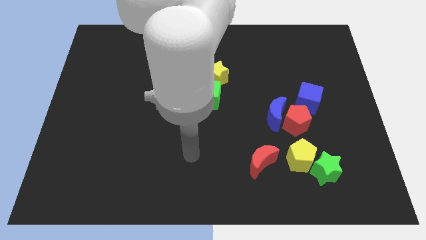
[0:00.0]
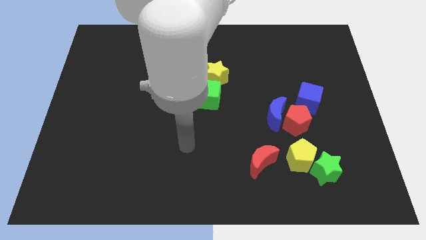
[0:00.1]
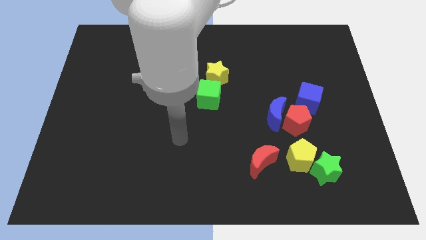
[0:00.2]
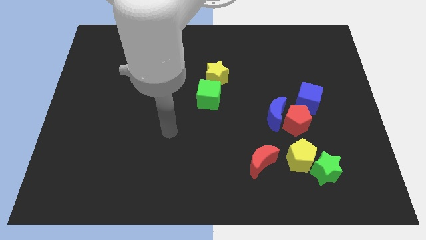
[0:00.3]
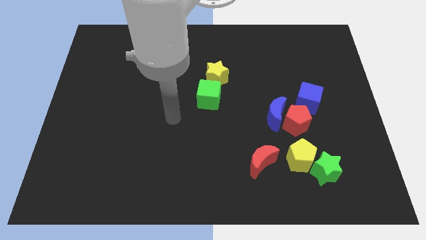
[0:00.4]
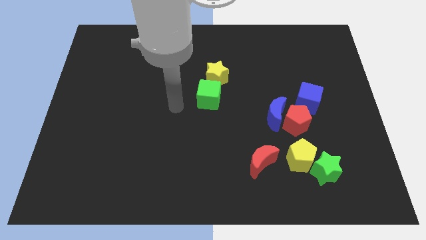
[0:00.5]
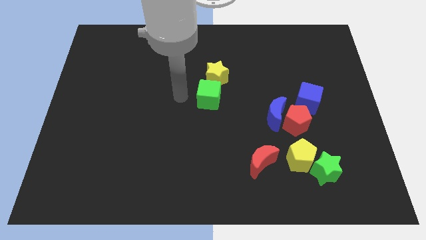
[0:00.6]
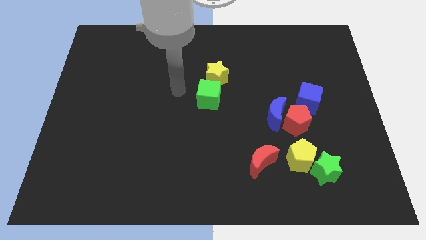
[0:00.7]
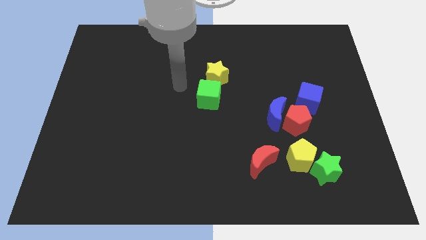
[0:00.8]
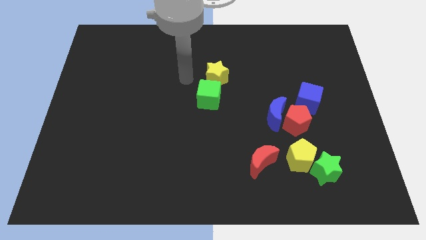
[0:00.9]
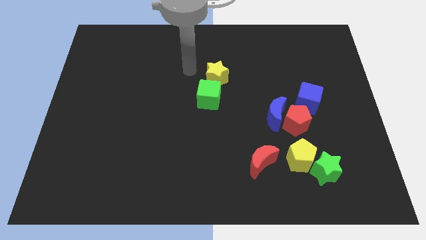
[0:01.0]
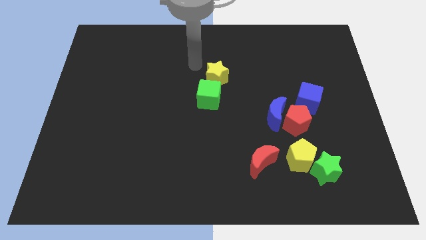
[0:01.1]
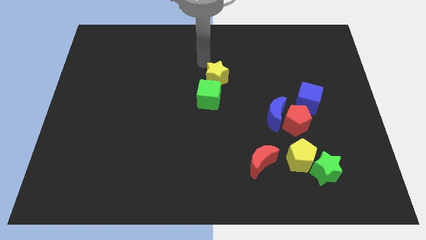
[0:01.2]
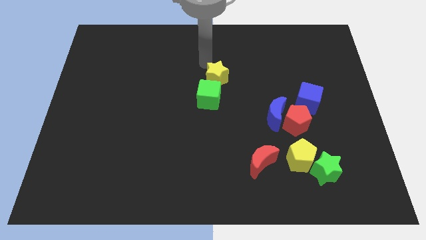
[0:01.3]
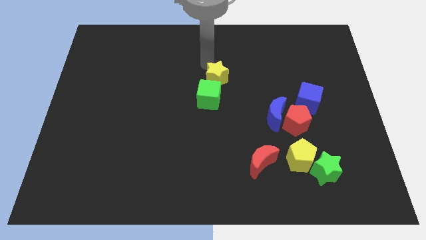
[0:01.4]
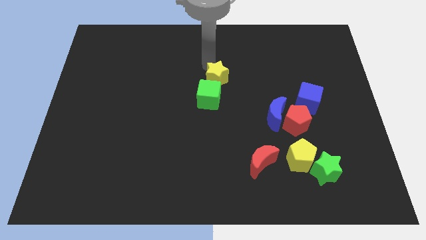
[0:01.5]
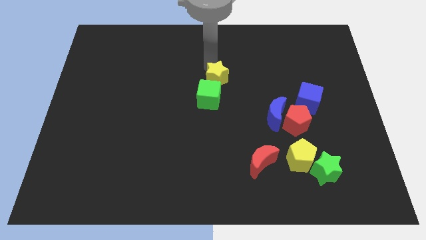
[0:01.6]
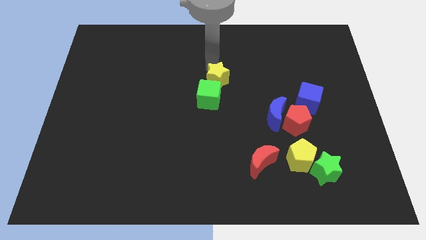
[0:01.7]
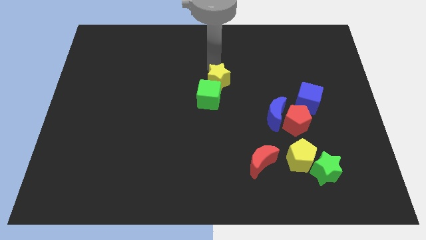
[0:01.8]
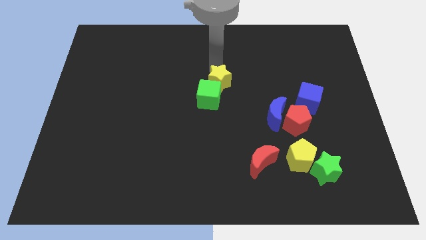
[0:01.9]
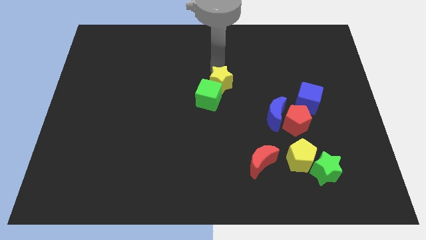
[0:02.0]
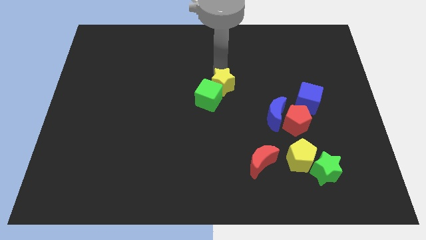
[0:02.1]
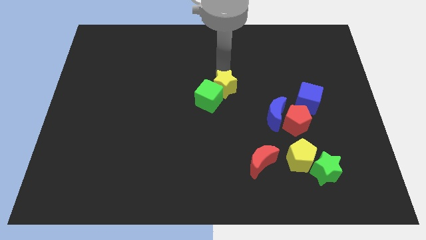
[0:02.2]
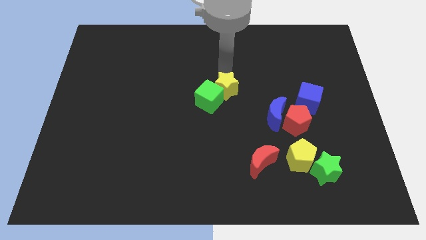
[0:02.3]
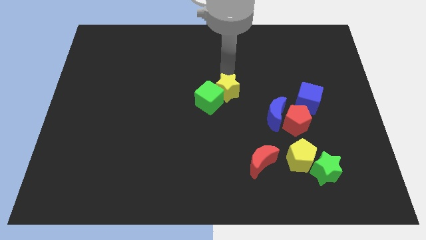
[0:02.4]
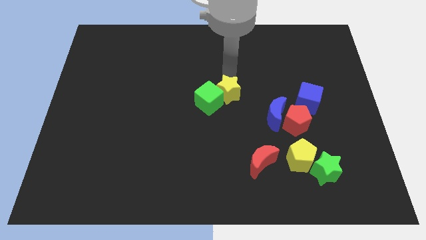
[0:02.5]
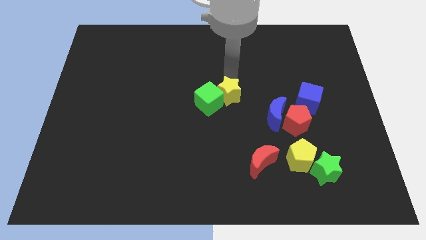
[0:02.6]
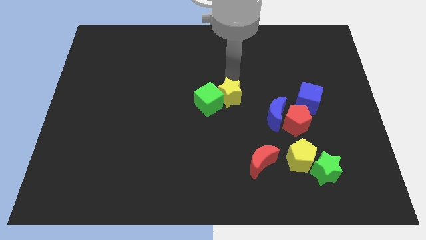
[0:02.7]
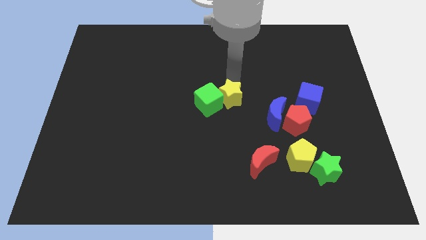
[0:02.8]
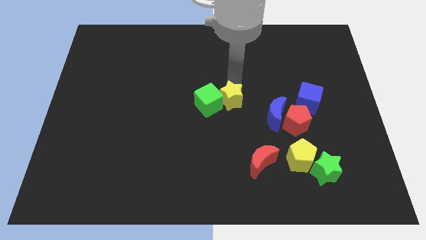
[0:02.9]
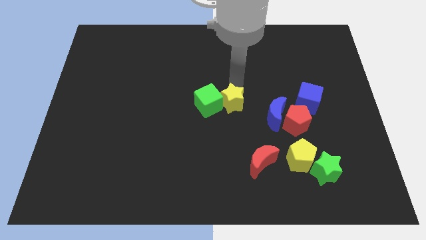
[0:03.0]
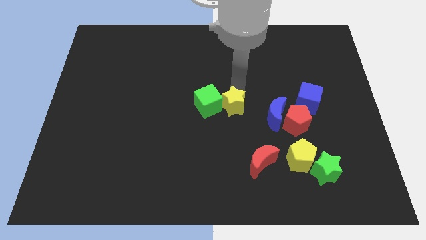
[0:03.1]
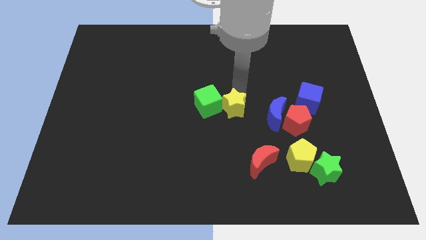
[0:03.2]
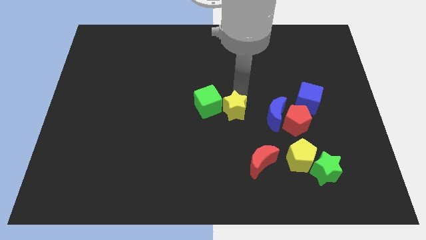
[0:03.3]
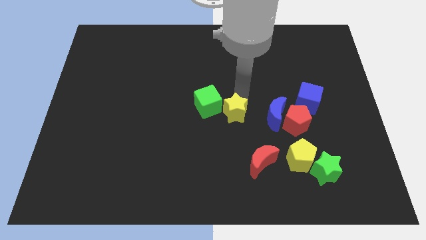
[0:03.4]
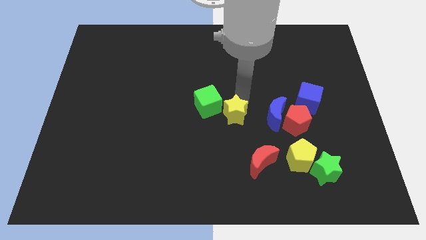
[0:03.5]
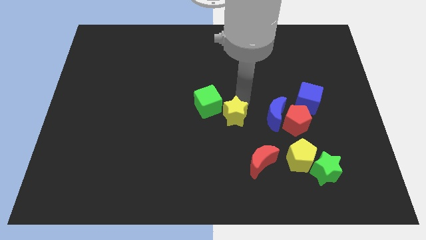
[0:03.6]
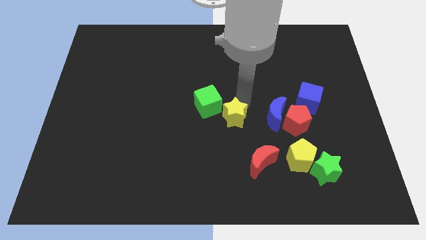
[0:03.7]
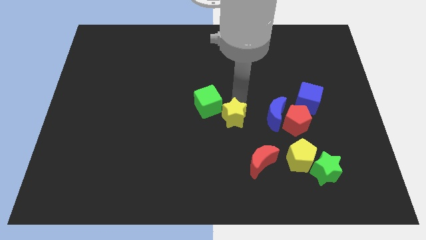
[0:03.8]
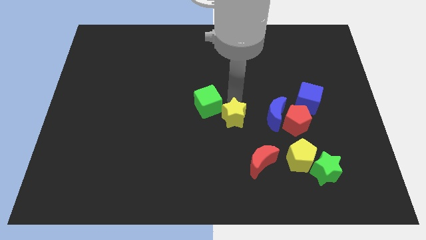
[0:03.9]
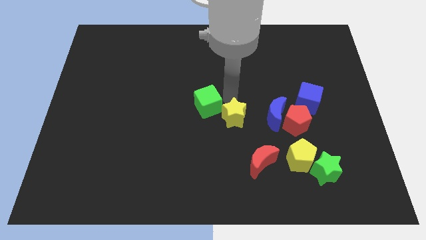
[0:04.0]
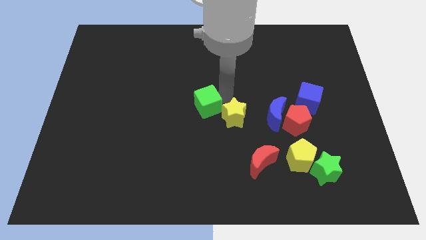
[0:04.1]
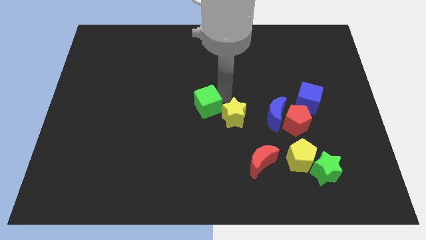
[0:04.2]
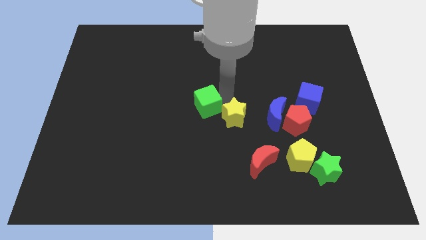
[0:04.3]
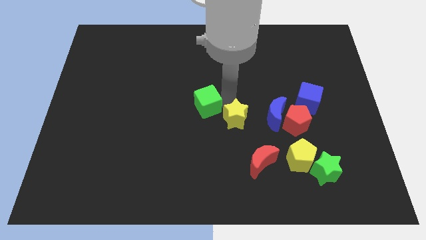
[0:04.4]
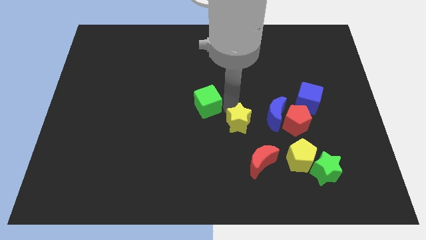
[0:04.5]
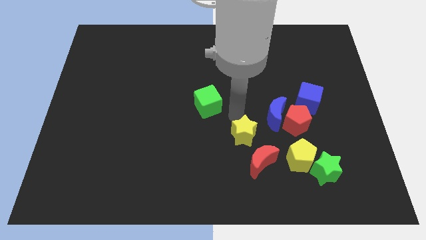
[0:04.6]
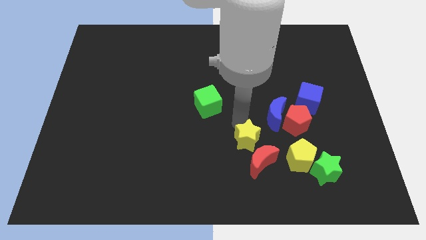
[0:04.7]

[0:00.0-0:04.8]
push the yellow star next to the red moon

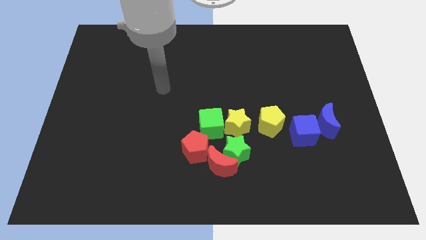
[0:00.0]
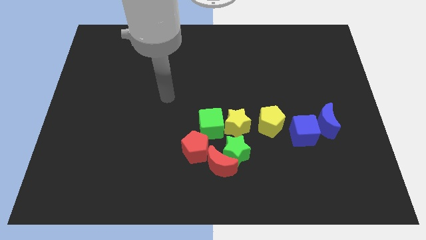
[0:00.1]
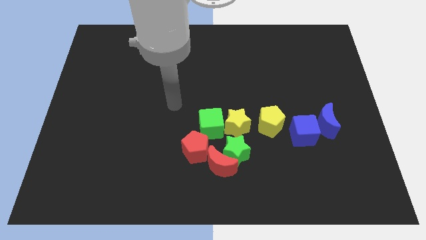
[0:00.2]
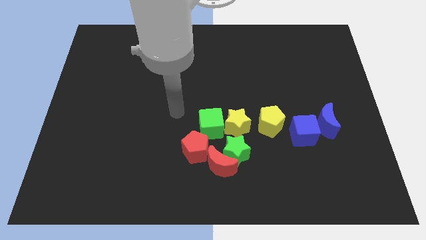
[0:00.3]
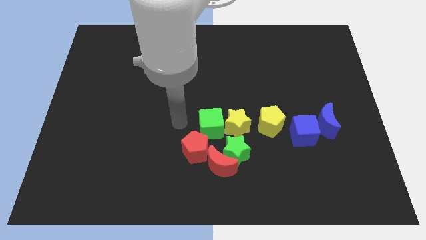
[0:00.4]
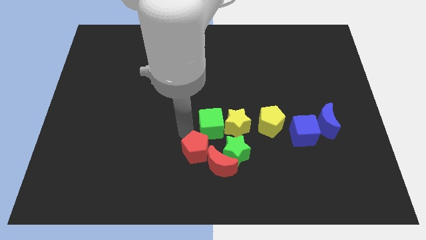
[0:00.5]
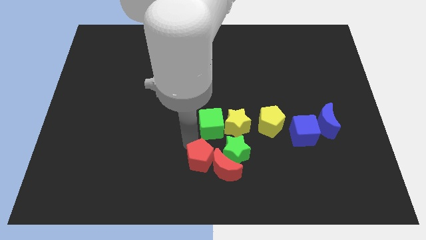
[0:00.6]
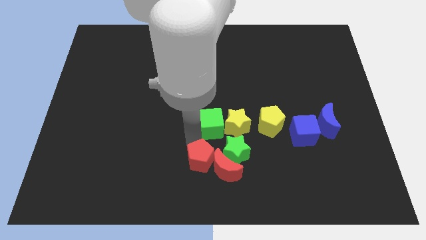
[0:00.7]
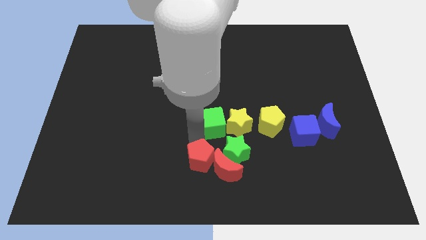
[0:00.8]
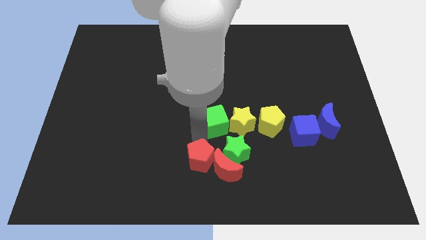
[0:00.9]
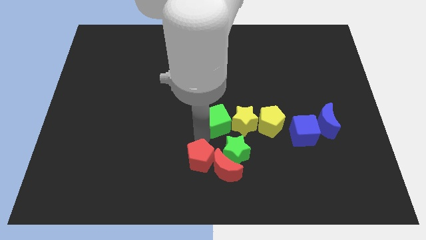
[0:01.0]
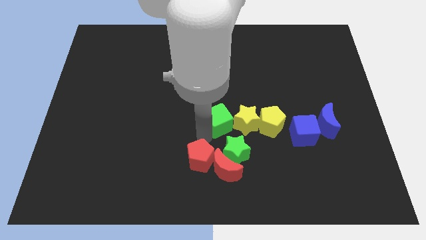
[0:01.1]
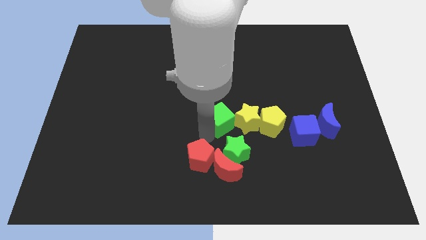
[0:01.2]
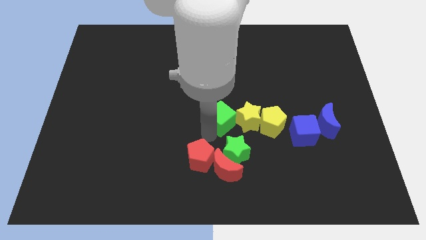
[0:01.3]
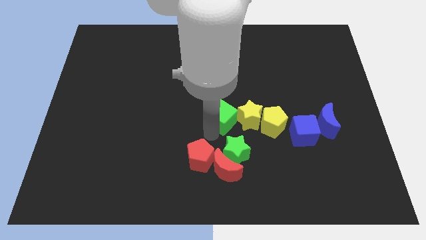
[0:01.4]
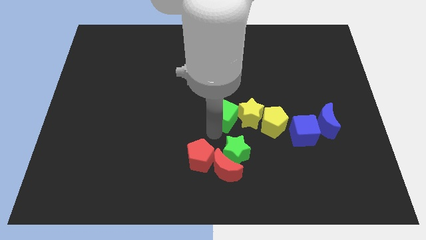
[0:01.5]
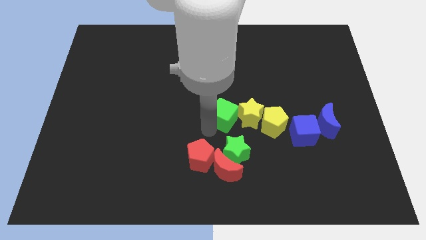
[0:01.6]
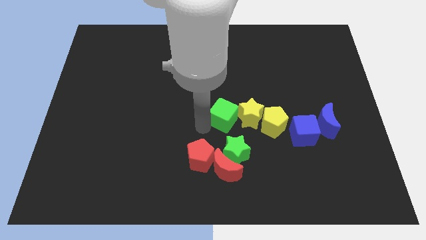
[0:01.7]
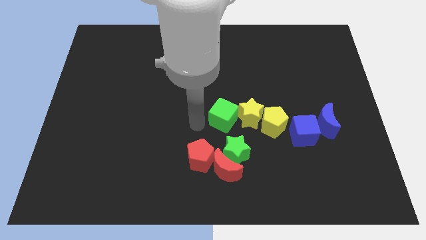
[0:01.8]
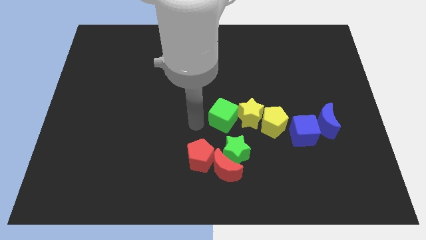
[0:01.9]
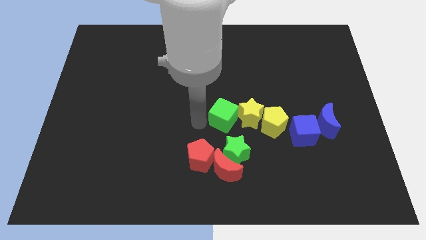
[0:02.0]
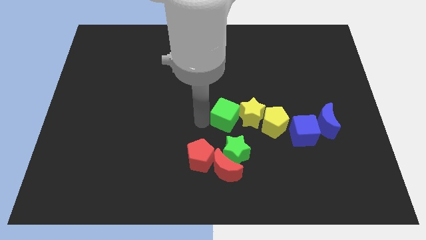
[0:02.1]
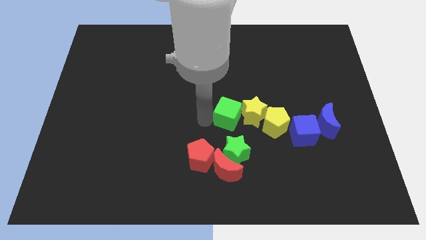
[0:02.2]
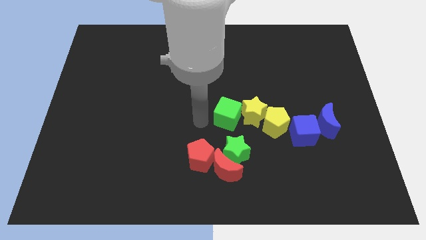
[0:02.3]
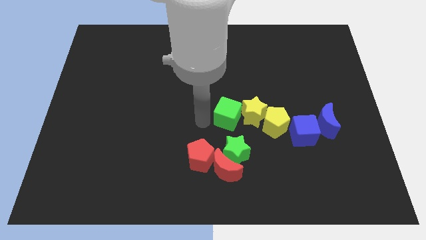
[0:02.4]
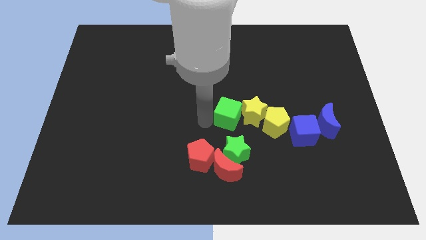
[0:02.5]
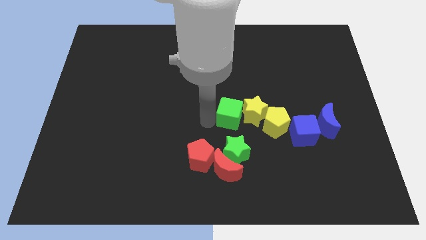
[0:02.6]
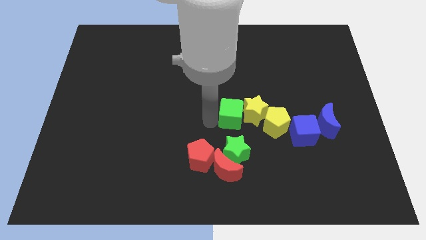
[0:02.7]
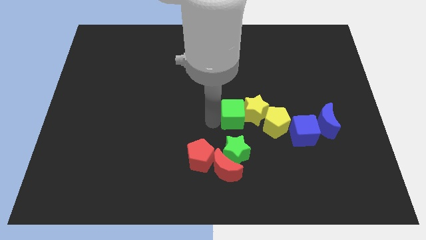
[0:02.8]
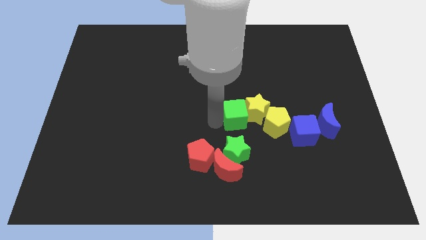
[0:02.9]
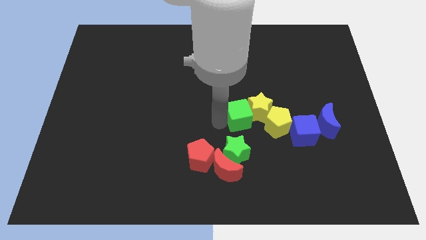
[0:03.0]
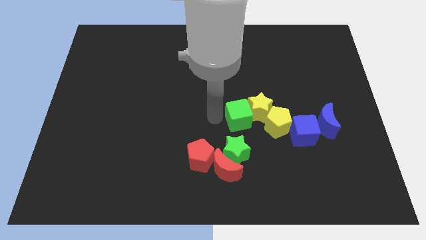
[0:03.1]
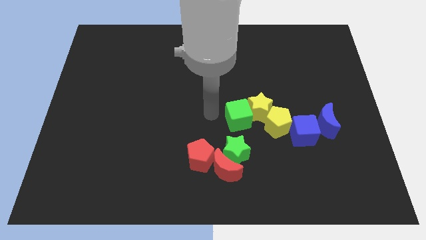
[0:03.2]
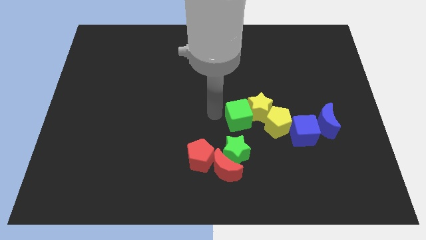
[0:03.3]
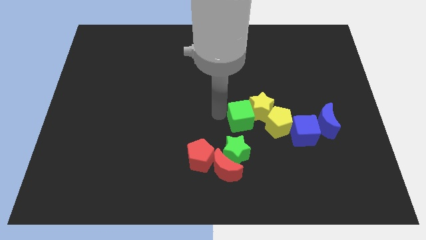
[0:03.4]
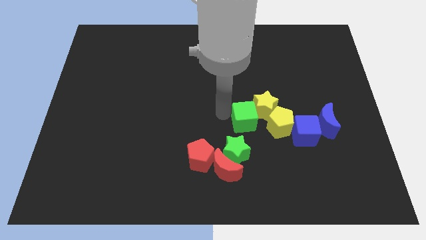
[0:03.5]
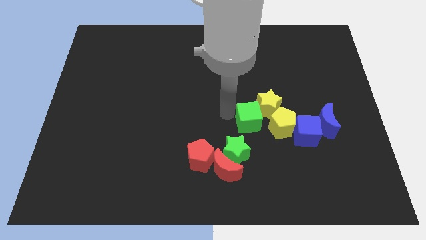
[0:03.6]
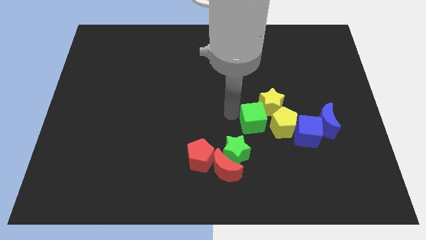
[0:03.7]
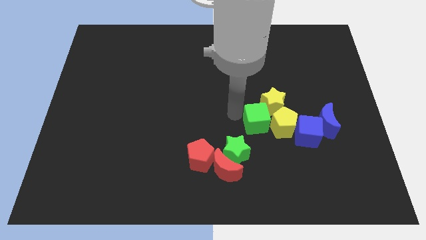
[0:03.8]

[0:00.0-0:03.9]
slide the green cube next to the yellow pentagon
